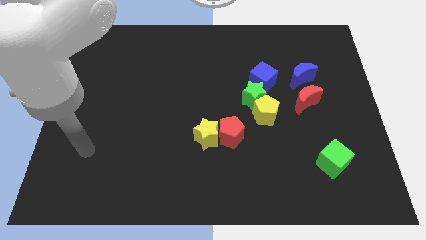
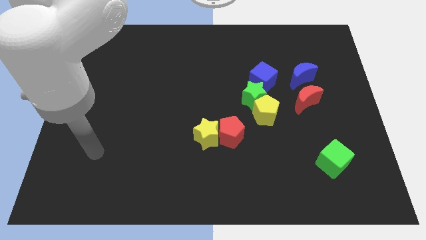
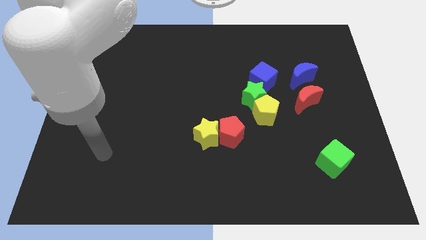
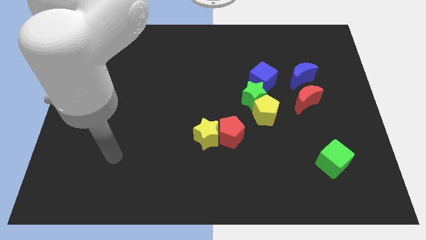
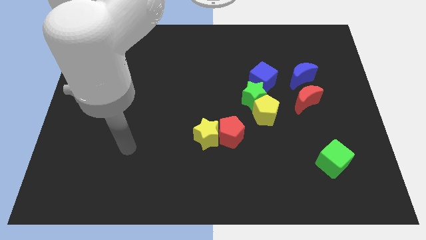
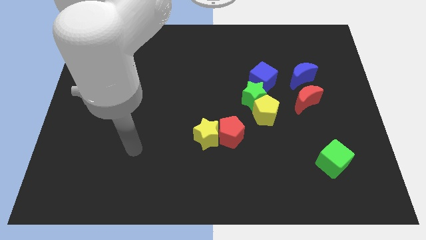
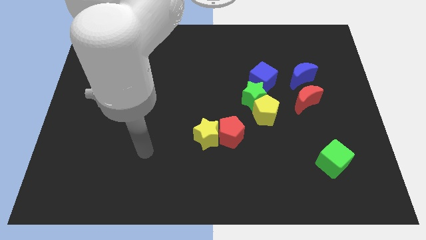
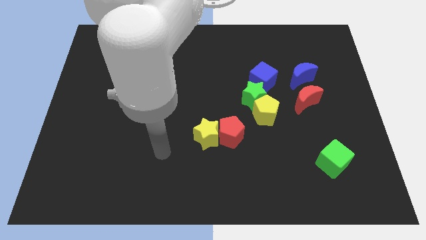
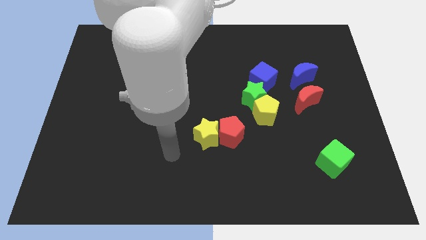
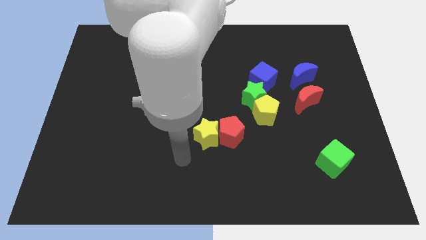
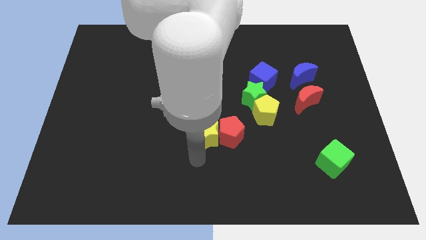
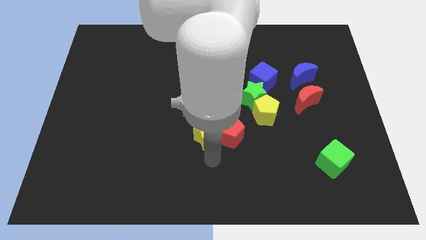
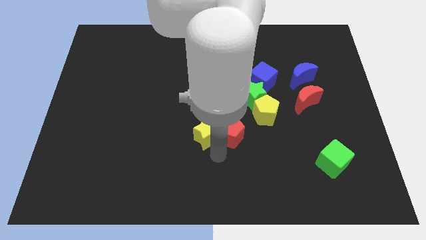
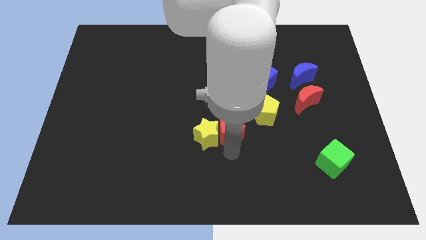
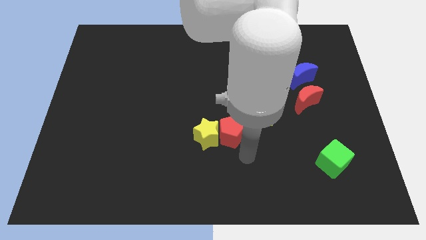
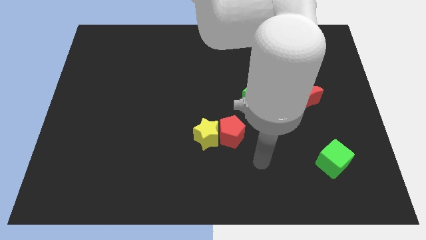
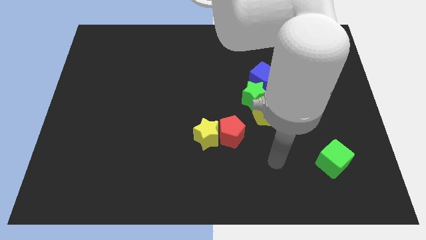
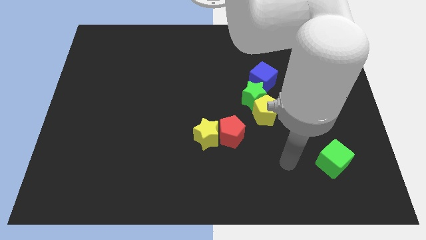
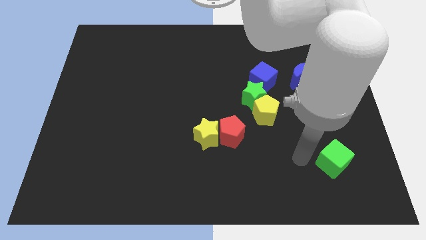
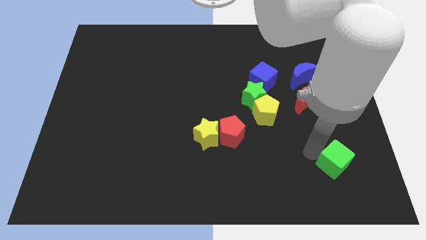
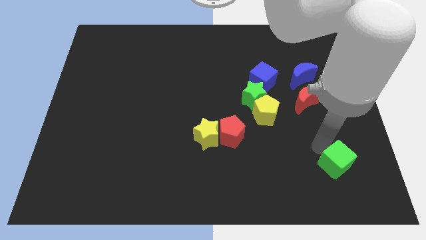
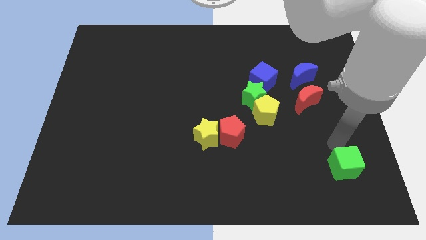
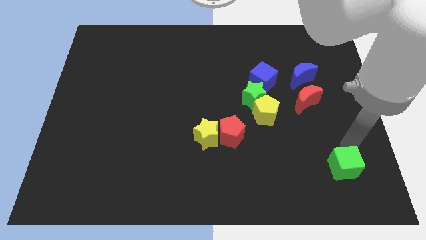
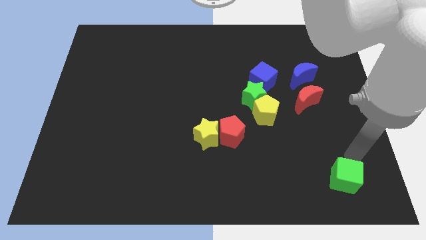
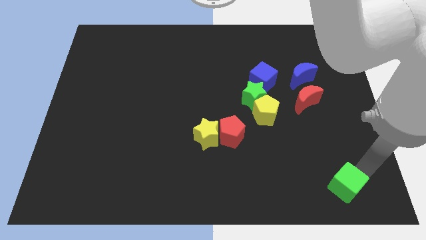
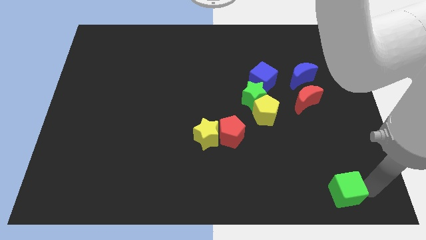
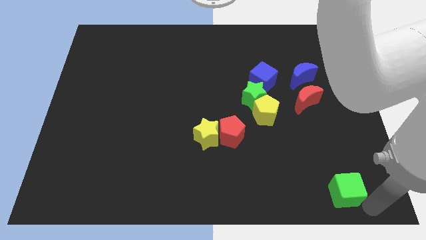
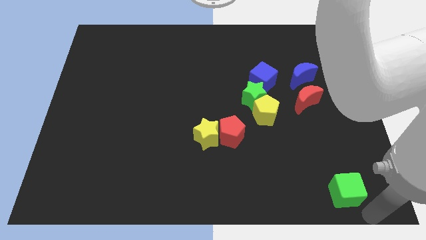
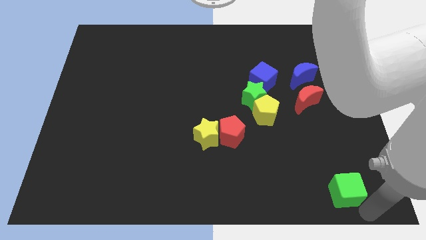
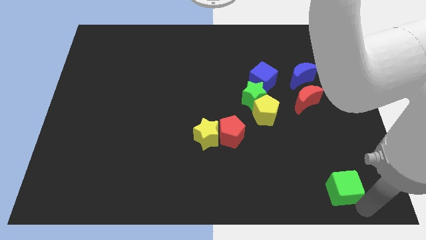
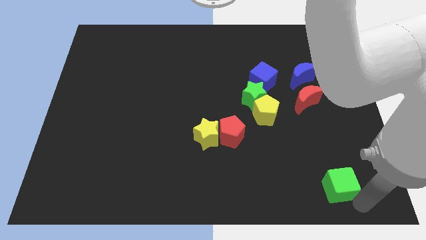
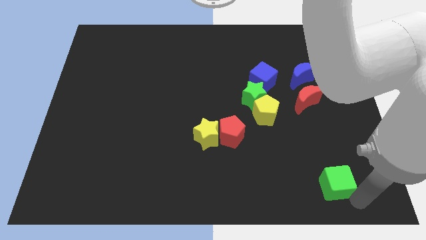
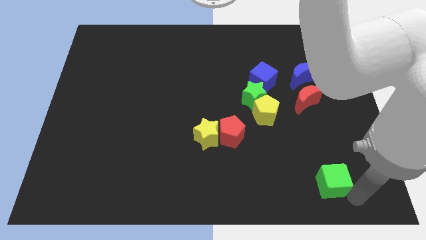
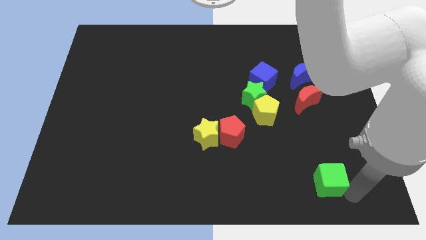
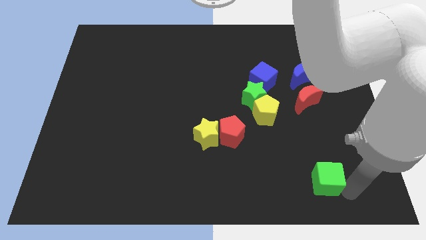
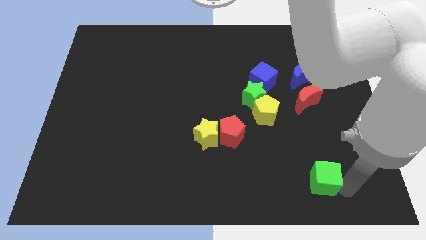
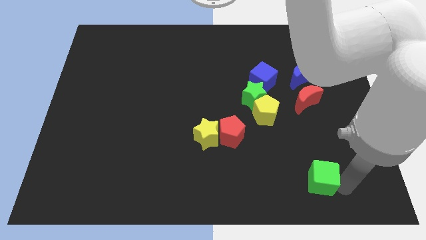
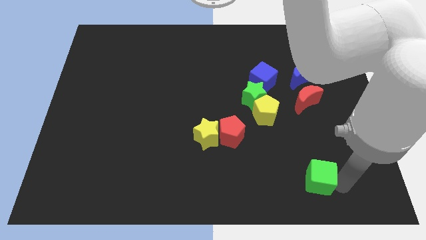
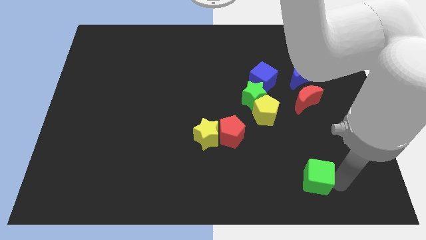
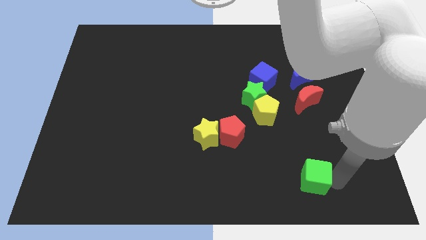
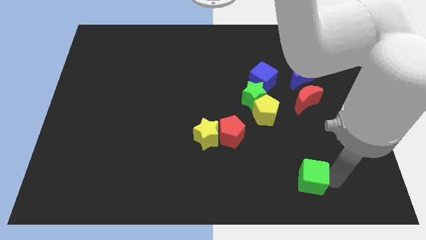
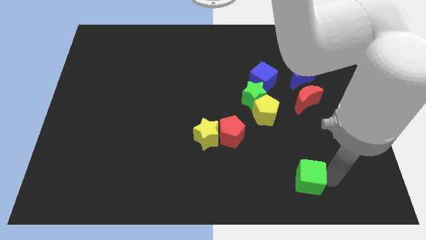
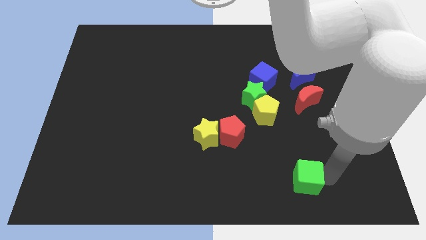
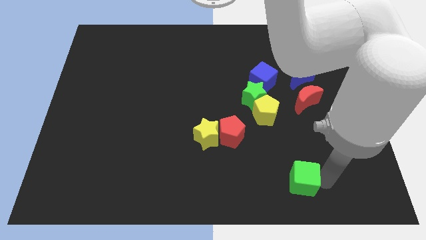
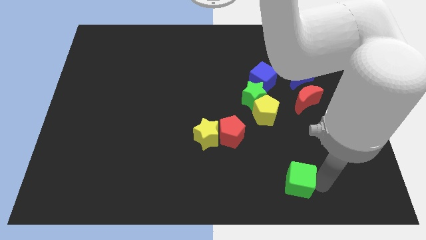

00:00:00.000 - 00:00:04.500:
slide the green cube a little bit to the left

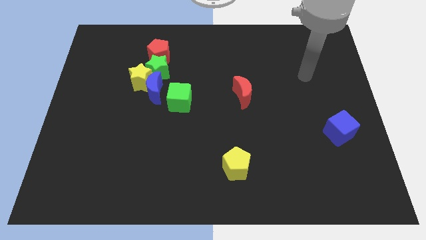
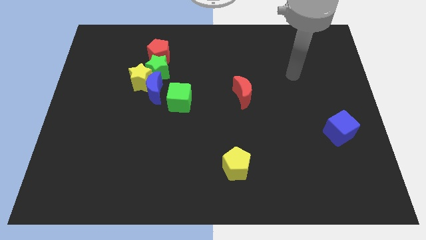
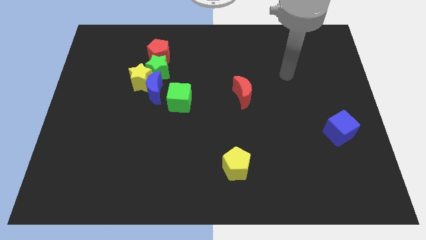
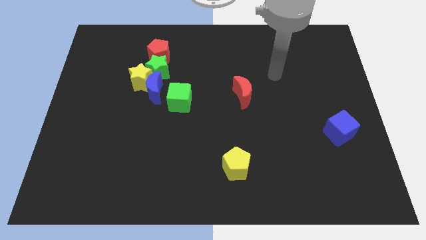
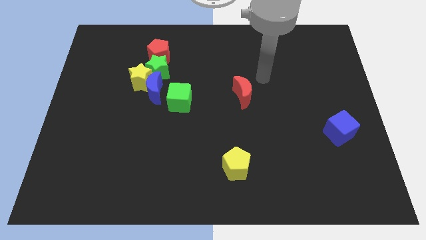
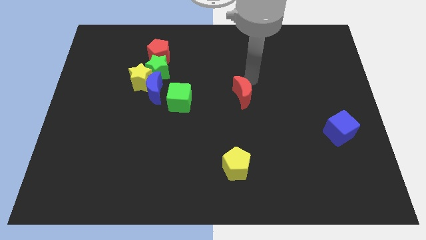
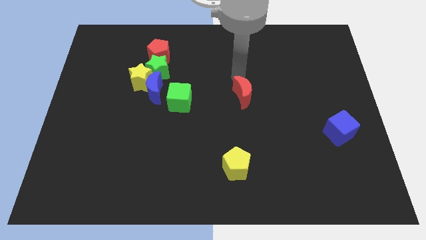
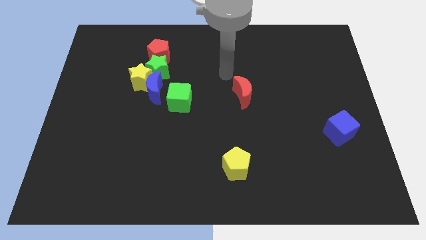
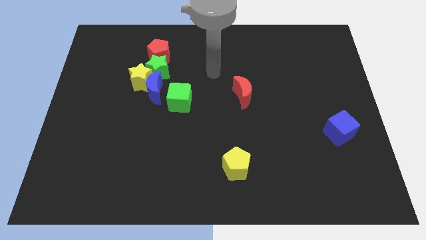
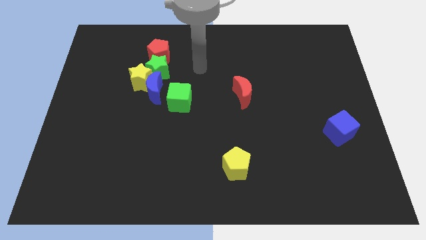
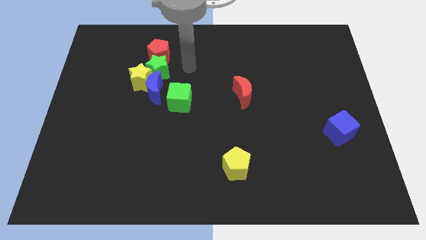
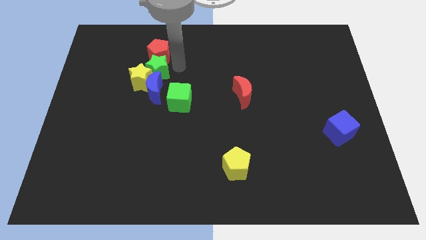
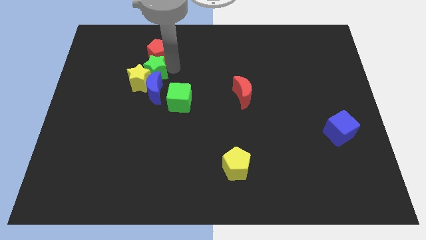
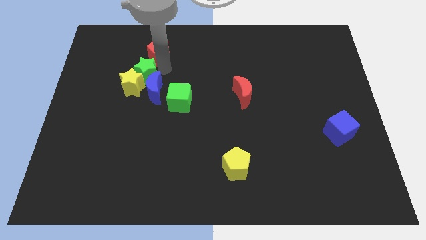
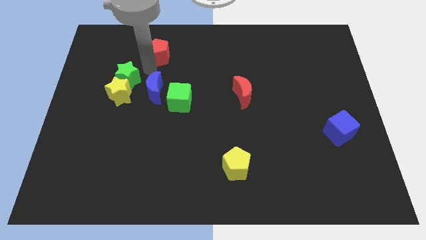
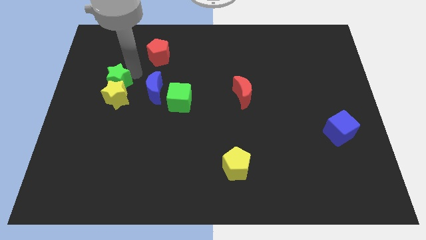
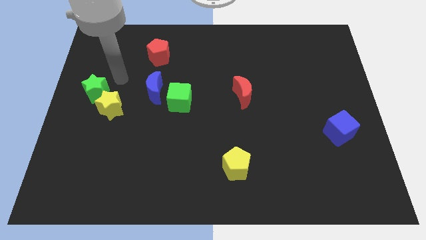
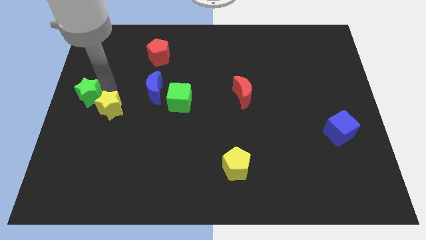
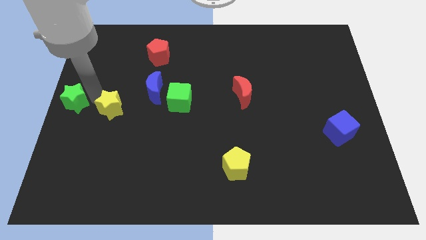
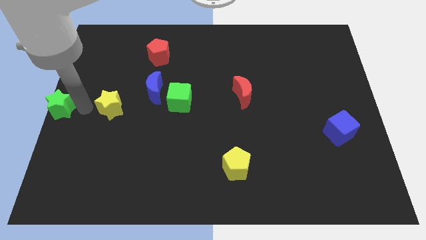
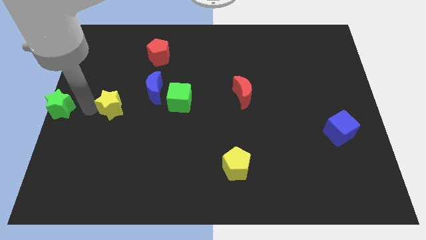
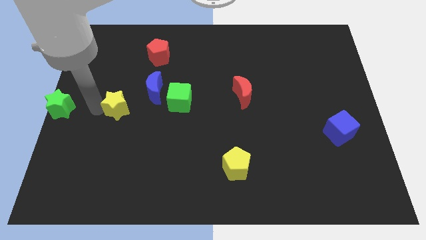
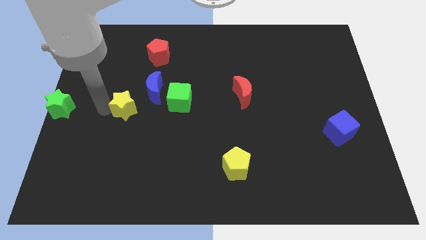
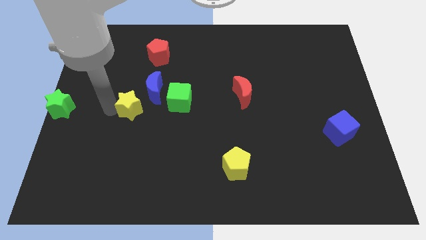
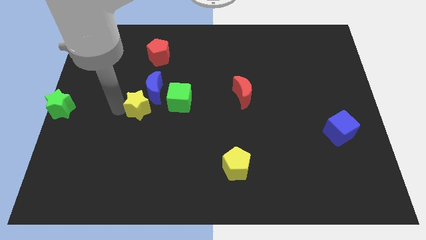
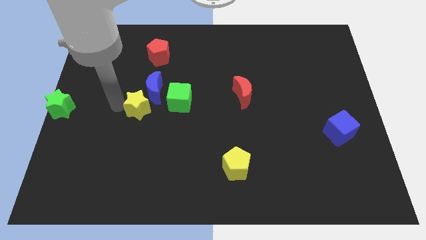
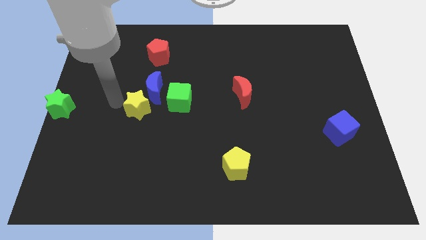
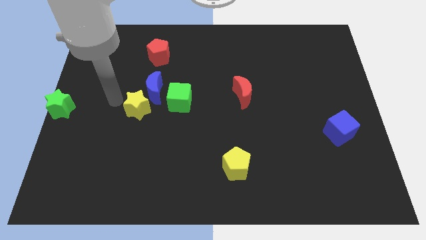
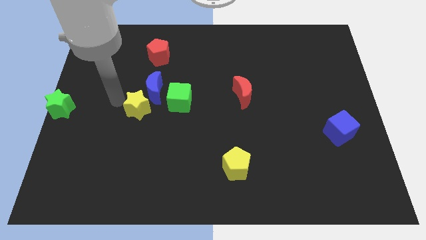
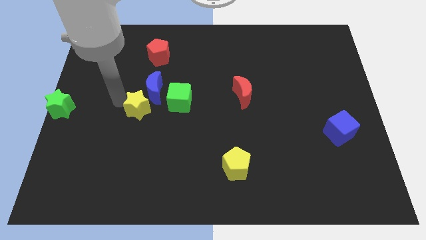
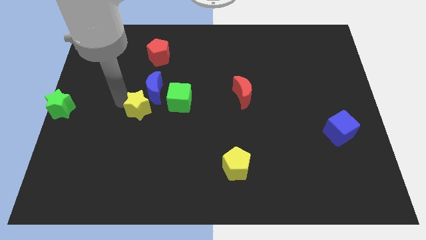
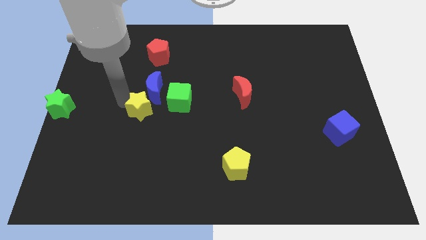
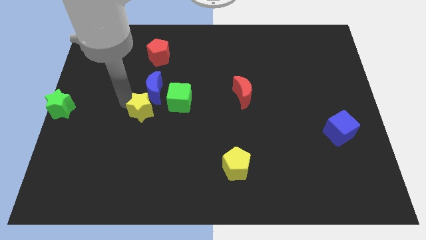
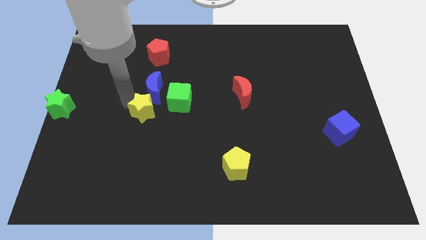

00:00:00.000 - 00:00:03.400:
slide the yellow star downwards and then to the right a little

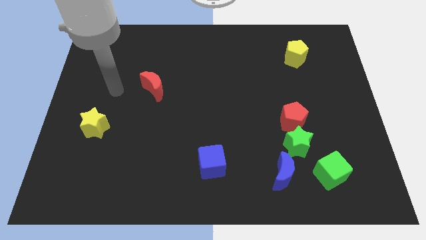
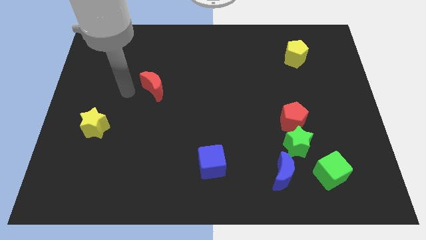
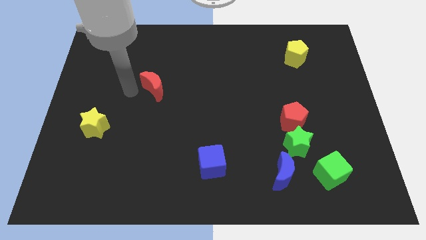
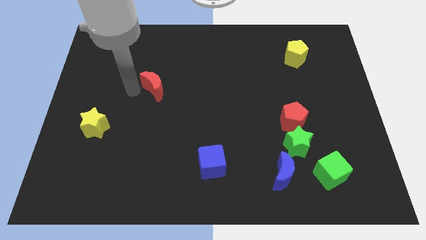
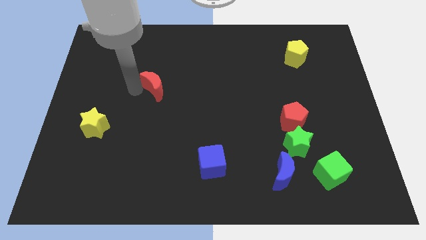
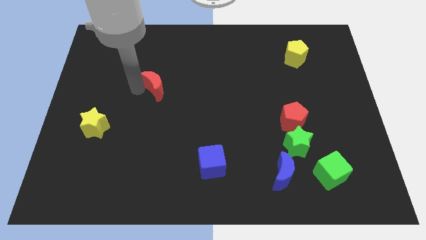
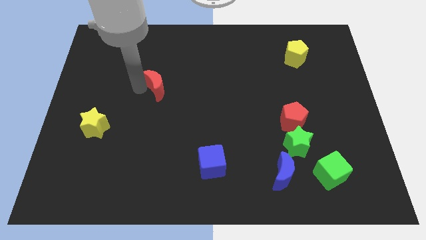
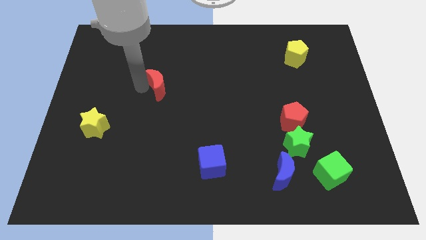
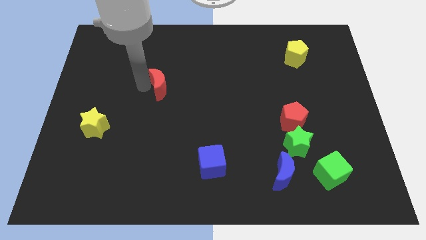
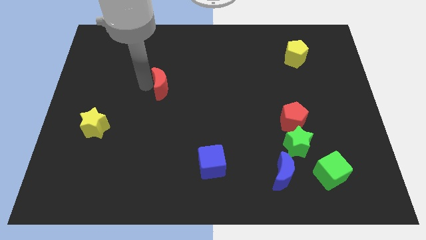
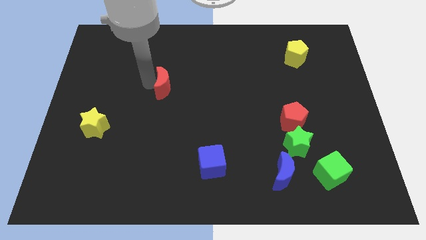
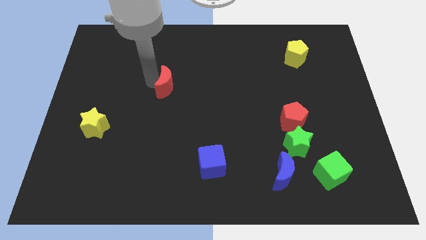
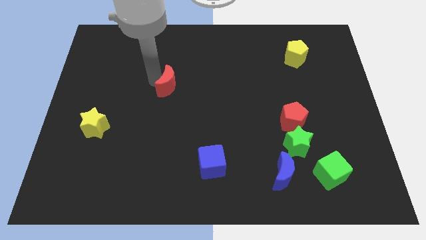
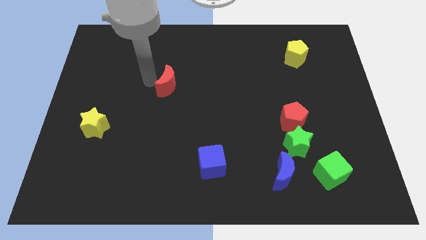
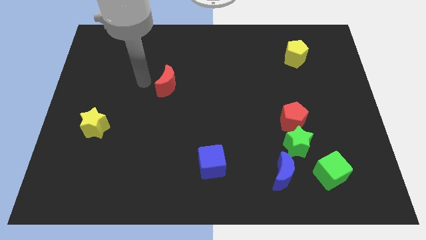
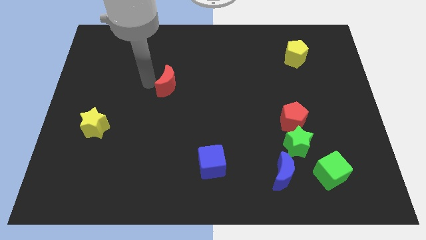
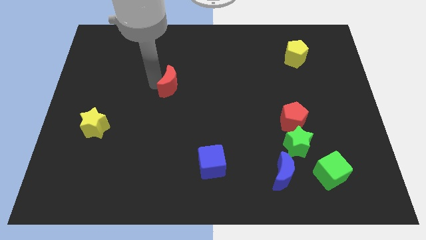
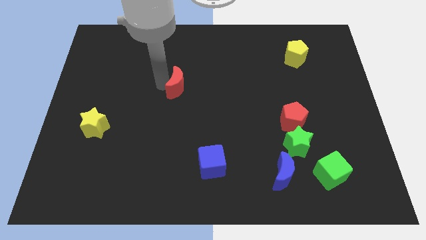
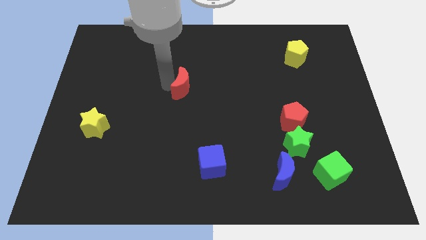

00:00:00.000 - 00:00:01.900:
slide the red moon right a little bit
